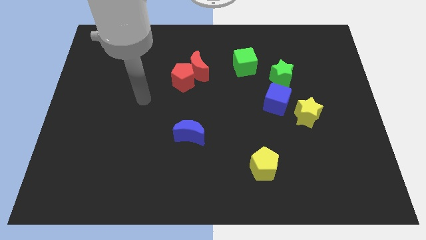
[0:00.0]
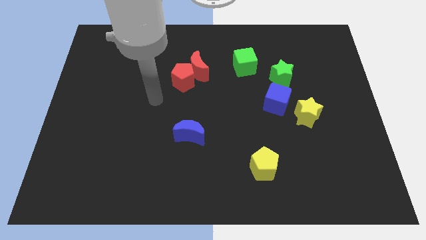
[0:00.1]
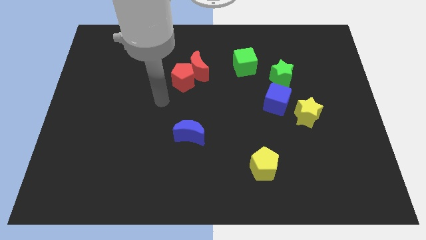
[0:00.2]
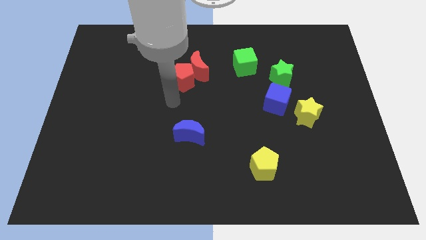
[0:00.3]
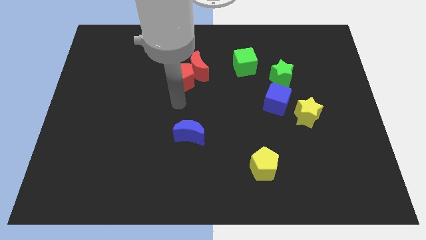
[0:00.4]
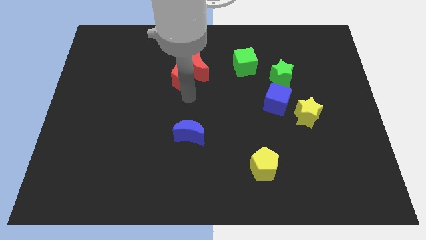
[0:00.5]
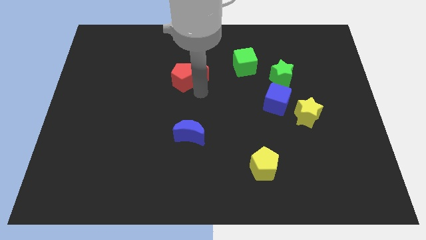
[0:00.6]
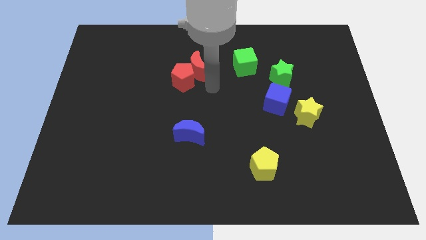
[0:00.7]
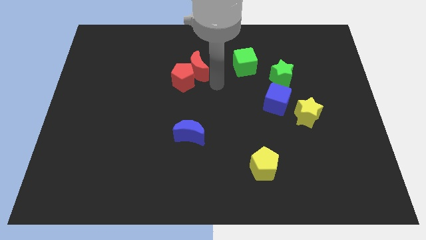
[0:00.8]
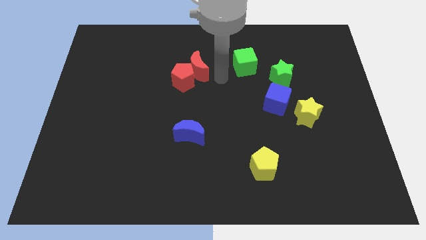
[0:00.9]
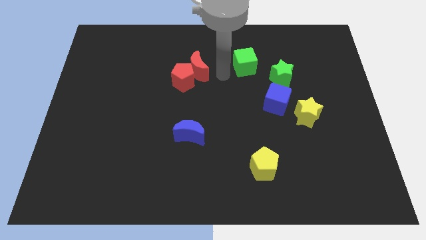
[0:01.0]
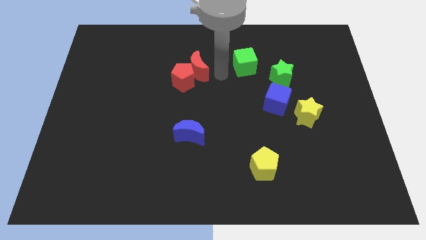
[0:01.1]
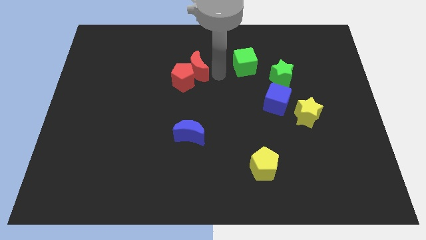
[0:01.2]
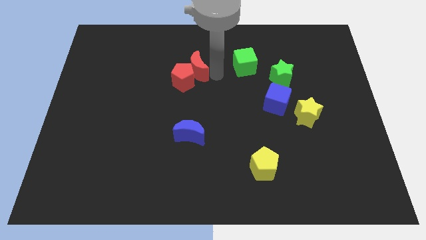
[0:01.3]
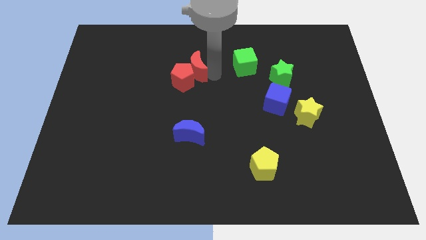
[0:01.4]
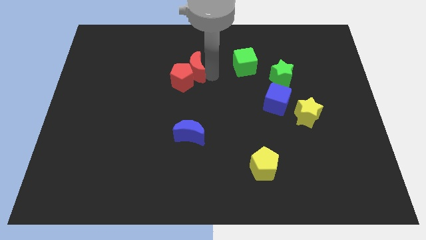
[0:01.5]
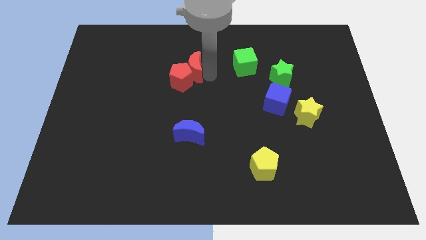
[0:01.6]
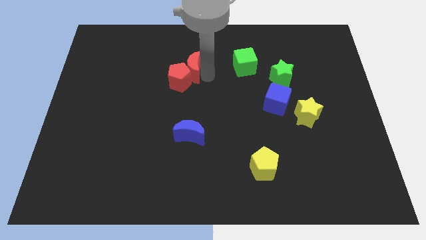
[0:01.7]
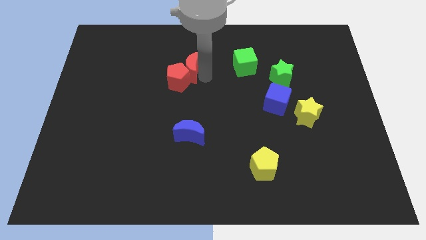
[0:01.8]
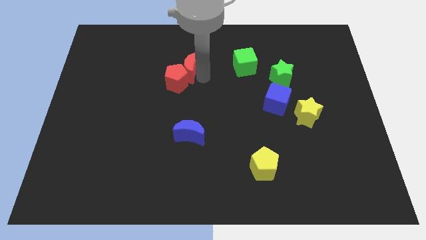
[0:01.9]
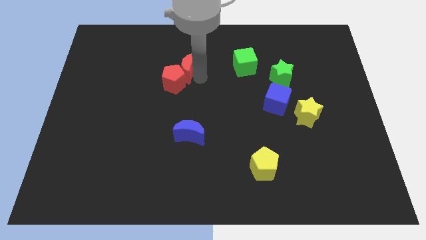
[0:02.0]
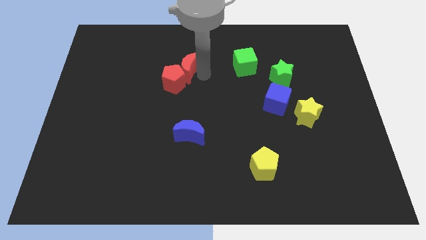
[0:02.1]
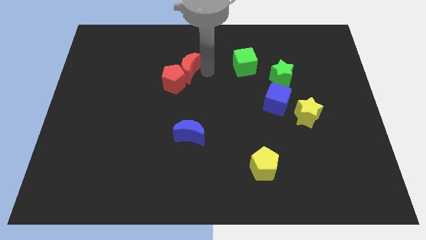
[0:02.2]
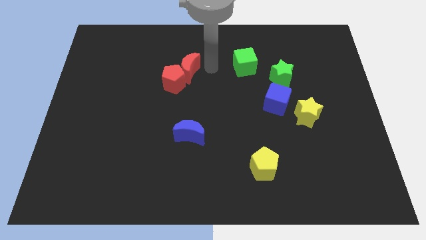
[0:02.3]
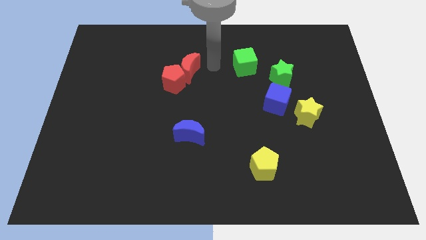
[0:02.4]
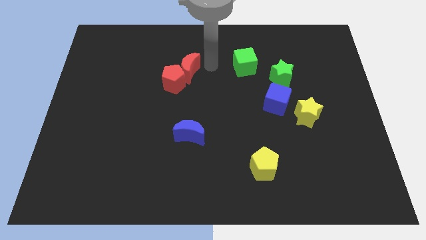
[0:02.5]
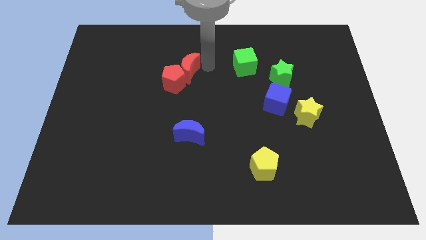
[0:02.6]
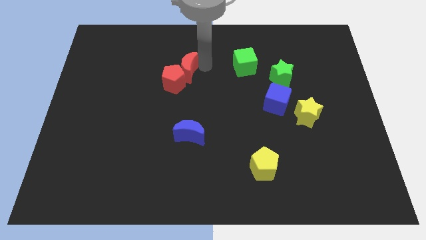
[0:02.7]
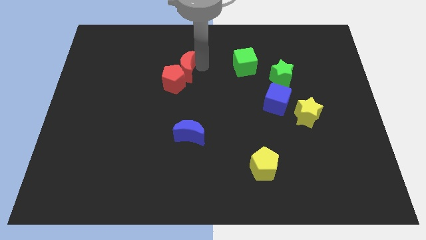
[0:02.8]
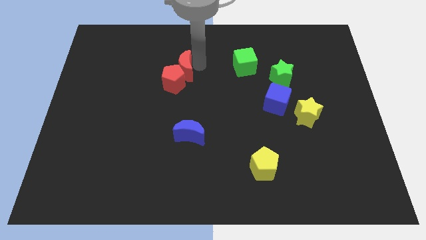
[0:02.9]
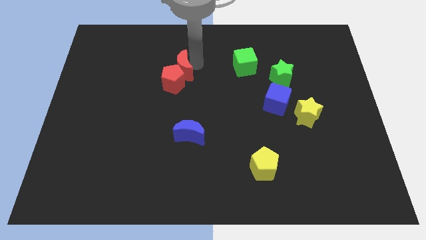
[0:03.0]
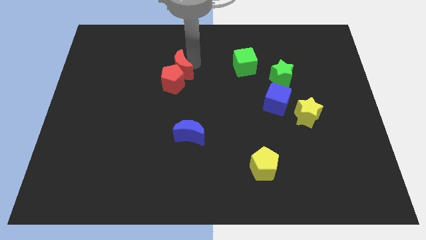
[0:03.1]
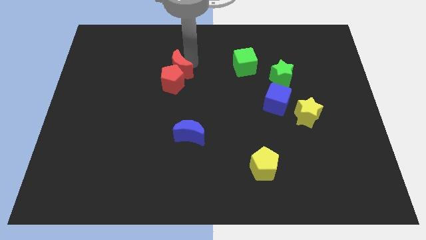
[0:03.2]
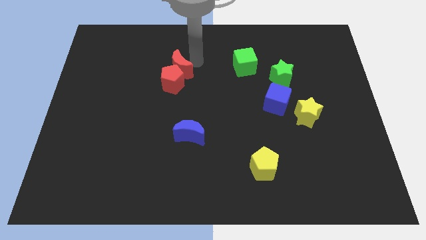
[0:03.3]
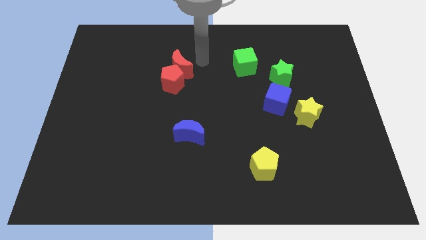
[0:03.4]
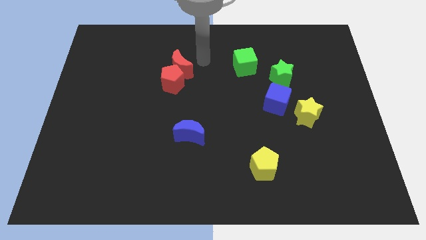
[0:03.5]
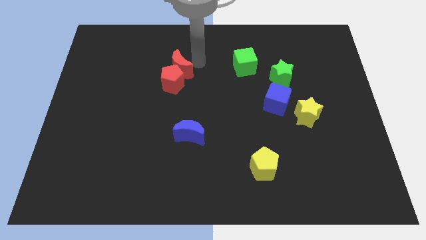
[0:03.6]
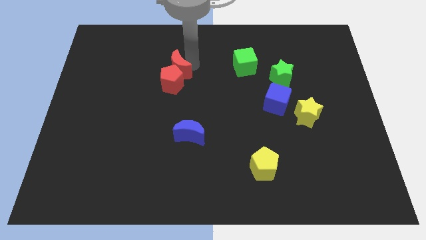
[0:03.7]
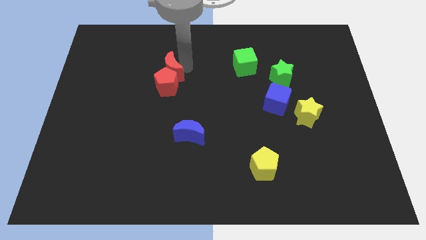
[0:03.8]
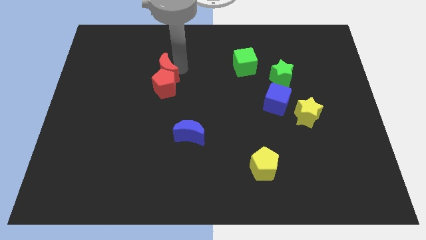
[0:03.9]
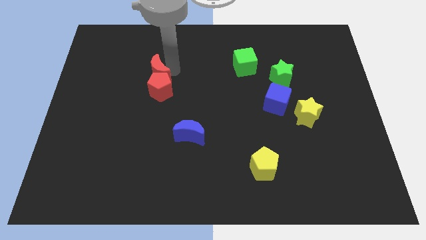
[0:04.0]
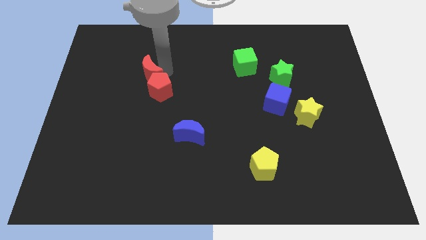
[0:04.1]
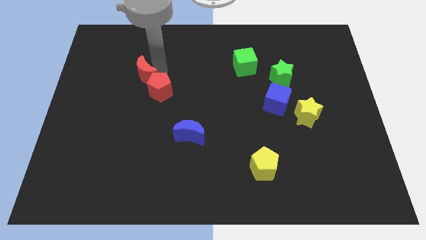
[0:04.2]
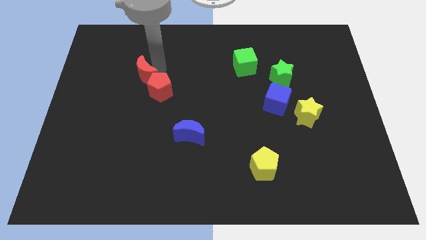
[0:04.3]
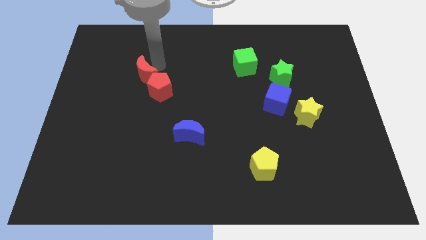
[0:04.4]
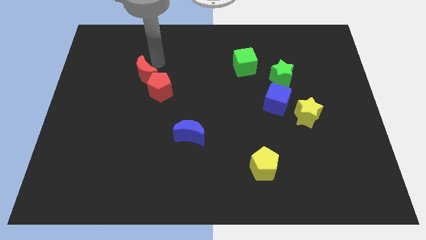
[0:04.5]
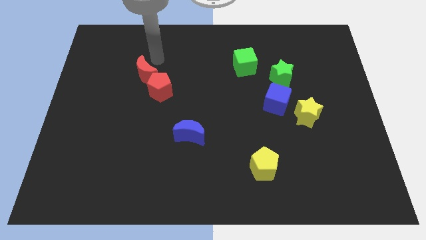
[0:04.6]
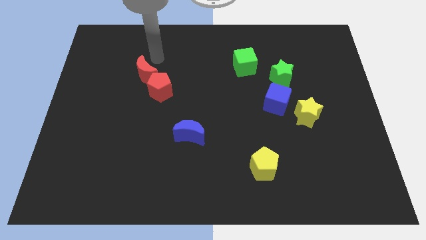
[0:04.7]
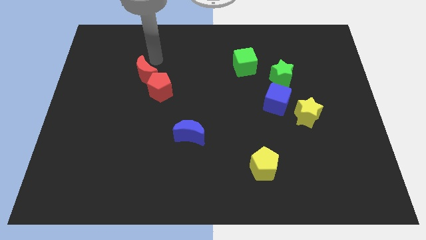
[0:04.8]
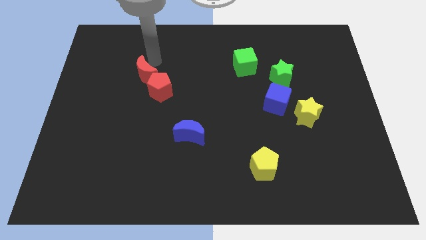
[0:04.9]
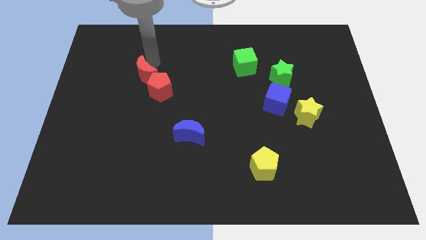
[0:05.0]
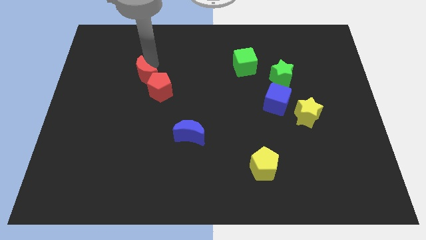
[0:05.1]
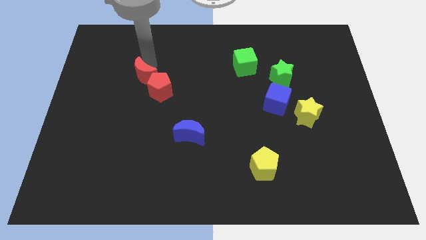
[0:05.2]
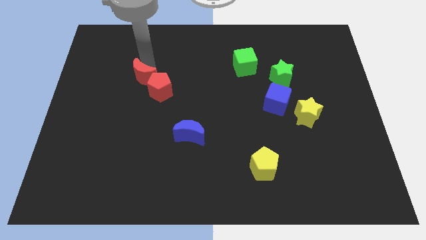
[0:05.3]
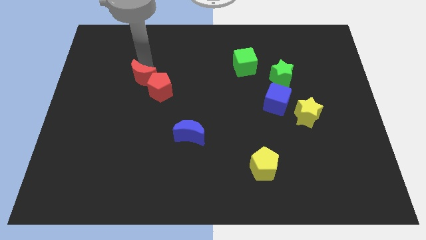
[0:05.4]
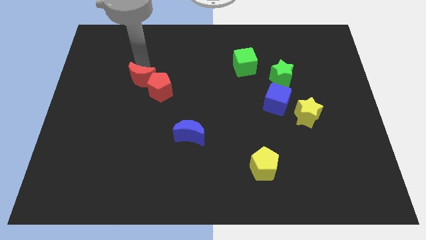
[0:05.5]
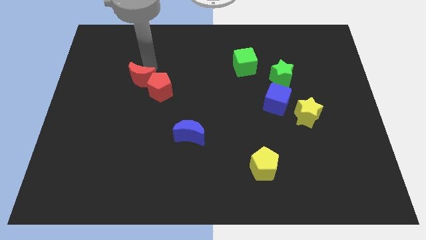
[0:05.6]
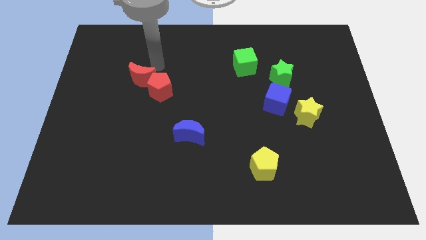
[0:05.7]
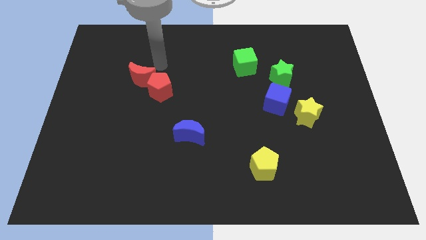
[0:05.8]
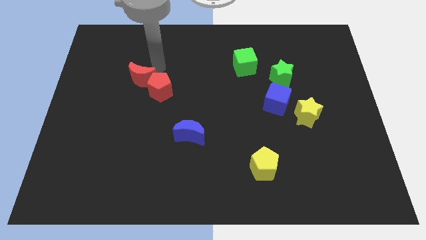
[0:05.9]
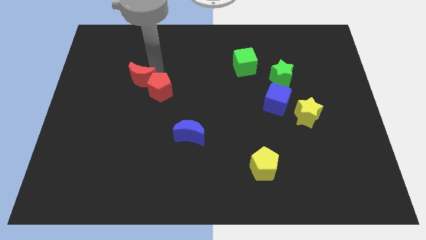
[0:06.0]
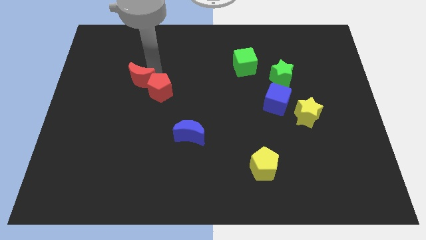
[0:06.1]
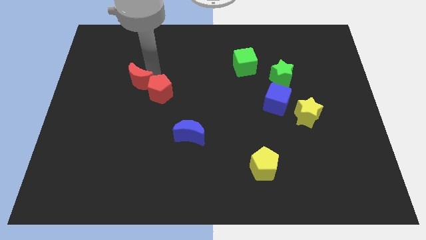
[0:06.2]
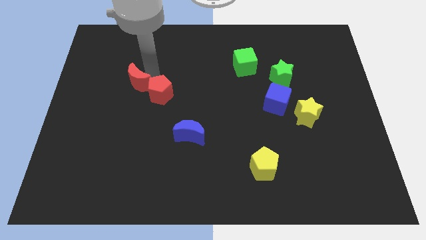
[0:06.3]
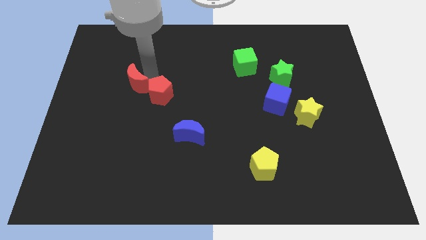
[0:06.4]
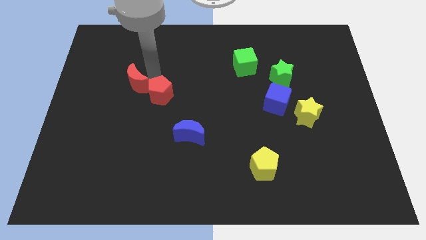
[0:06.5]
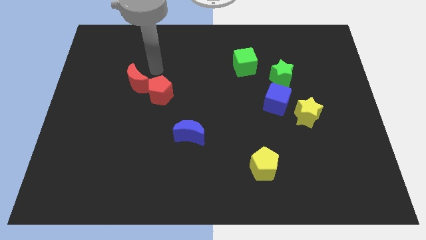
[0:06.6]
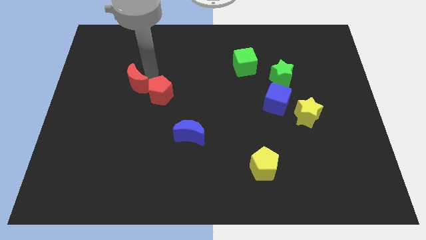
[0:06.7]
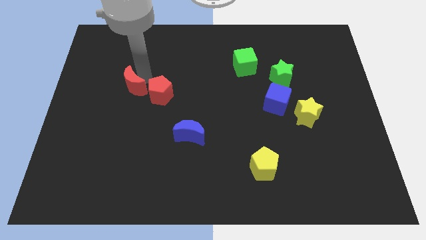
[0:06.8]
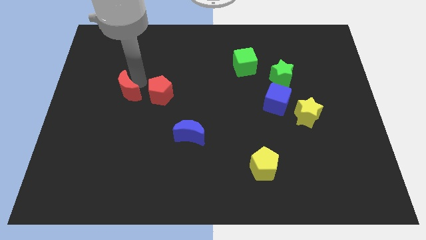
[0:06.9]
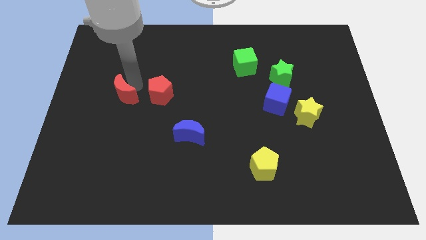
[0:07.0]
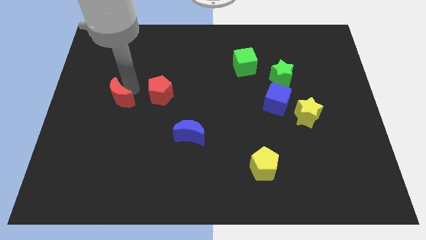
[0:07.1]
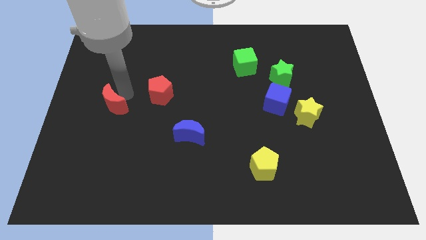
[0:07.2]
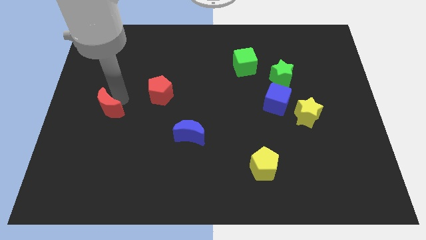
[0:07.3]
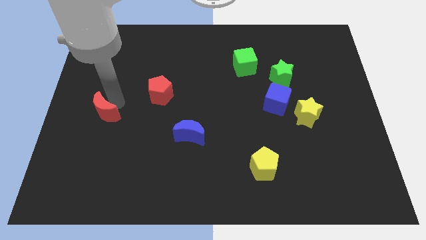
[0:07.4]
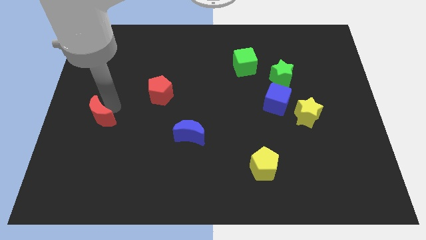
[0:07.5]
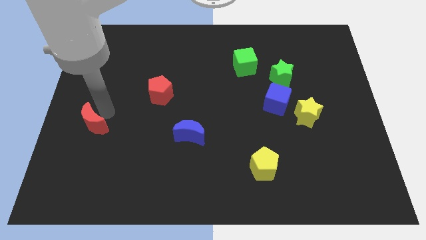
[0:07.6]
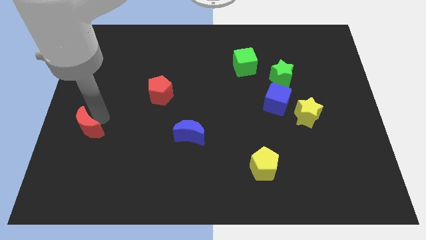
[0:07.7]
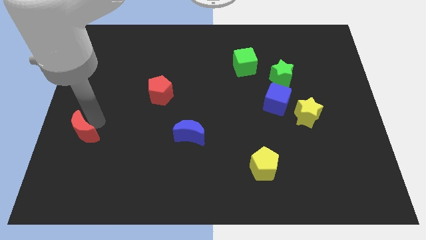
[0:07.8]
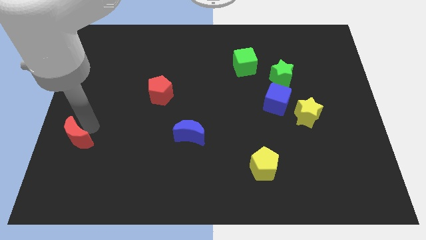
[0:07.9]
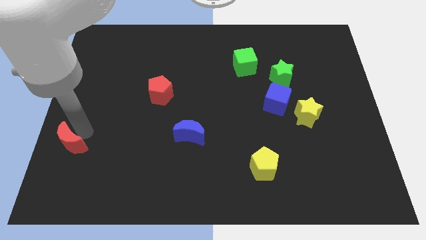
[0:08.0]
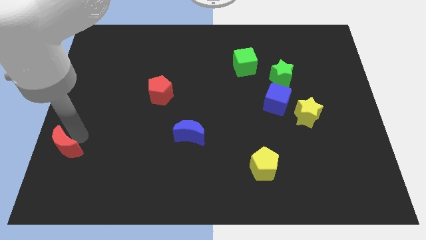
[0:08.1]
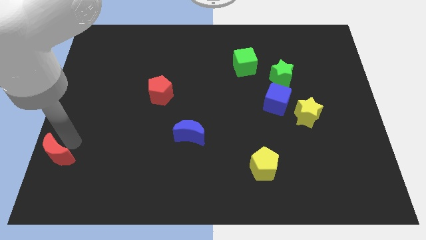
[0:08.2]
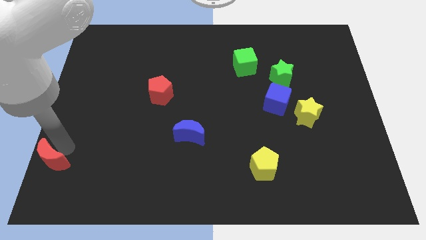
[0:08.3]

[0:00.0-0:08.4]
move the red moon to the bottom left corner
